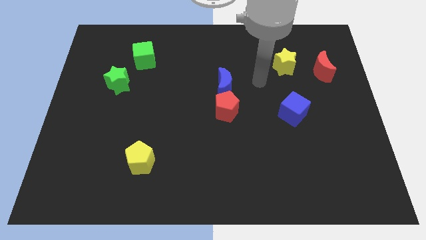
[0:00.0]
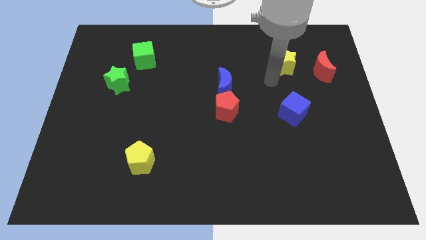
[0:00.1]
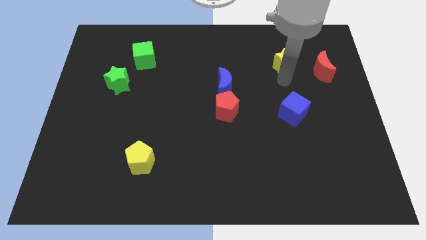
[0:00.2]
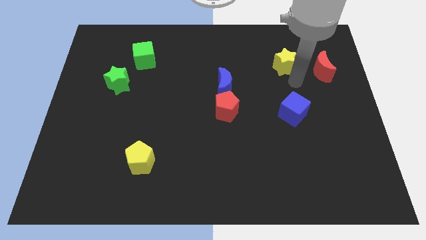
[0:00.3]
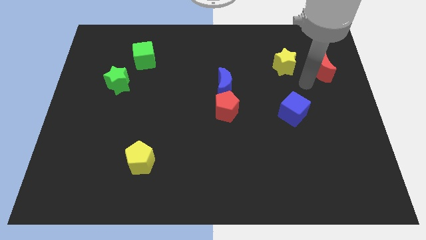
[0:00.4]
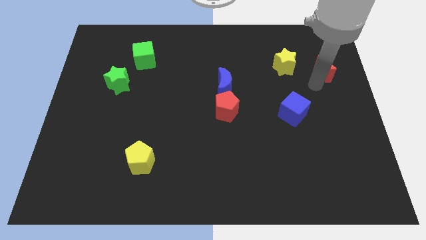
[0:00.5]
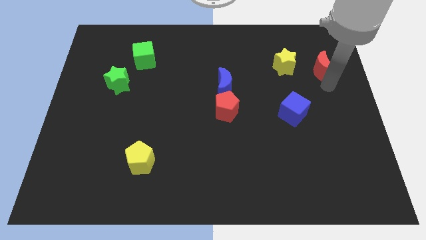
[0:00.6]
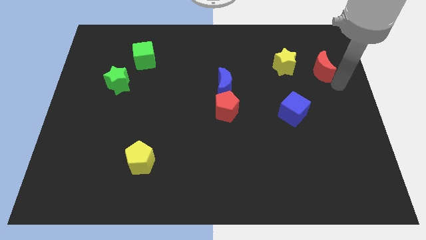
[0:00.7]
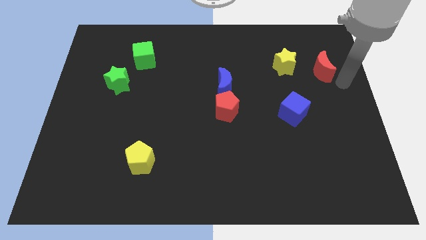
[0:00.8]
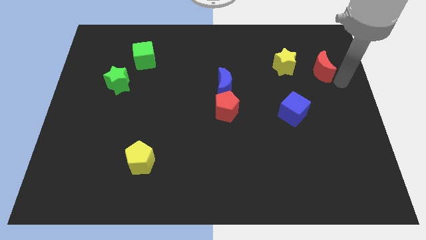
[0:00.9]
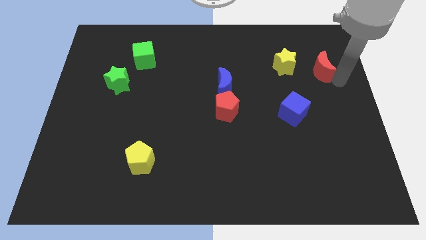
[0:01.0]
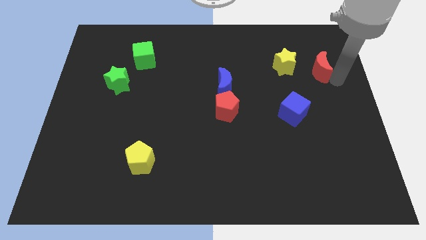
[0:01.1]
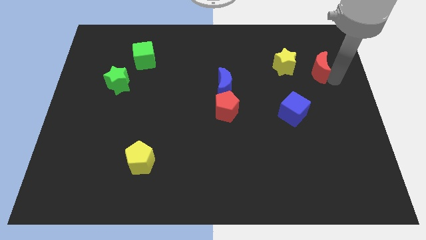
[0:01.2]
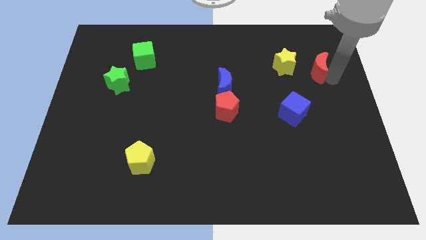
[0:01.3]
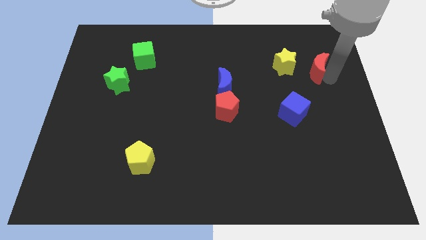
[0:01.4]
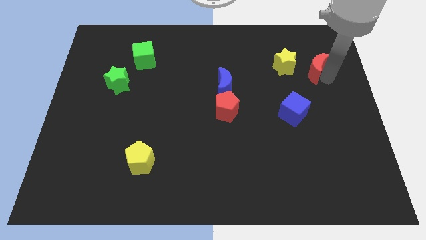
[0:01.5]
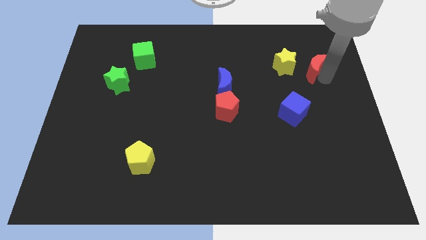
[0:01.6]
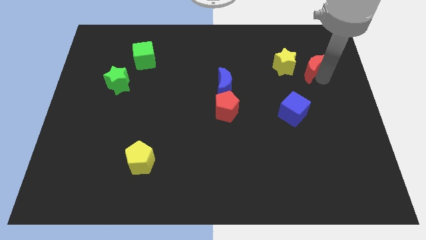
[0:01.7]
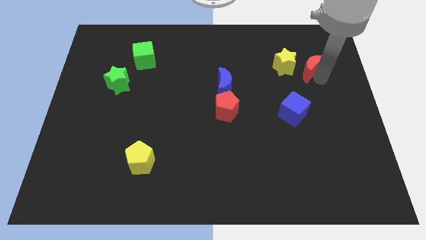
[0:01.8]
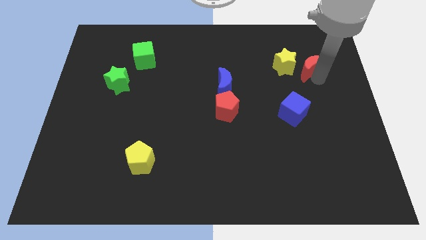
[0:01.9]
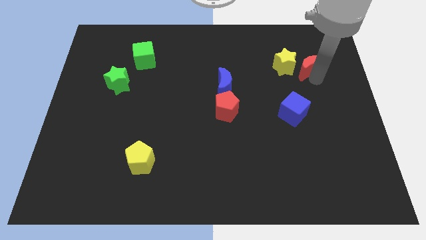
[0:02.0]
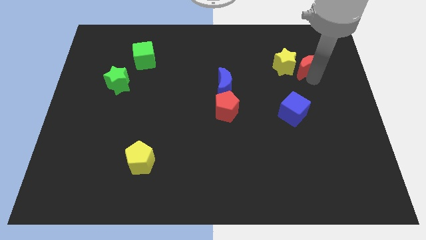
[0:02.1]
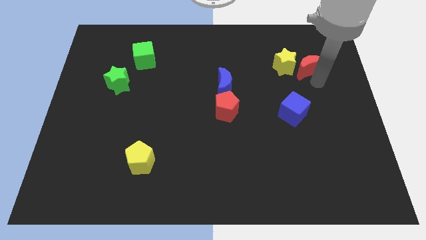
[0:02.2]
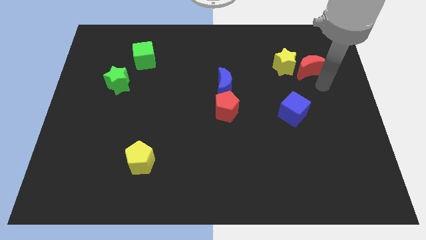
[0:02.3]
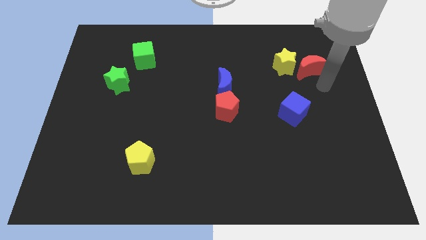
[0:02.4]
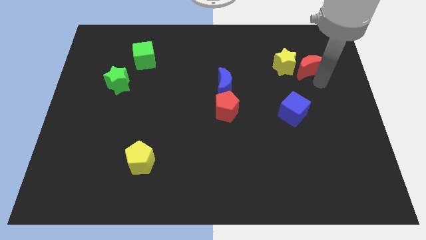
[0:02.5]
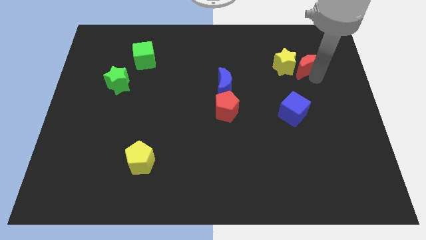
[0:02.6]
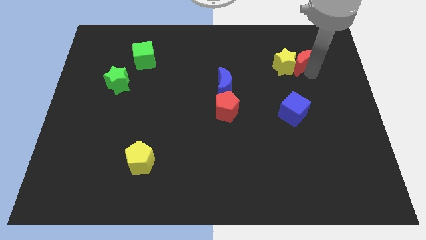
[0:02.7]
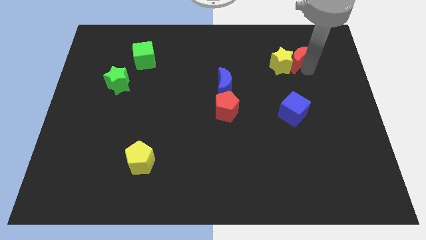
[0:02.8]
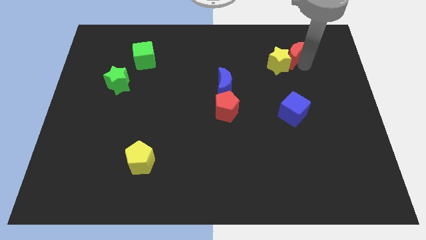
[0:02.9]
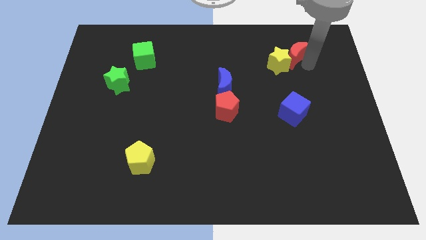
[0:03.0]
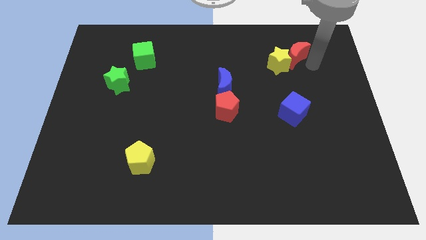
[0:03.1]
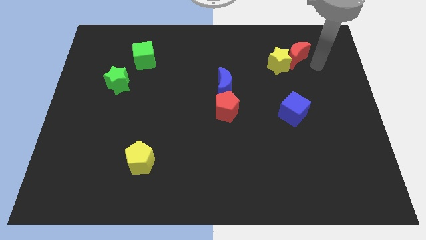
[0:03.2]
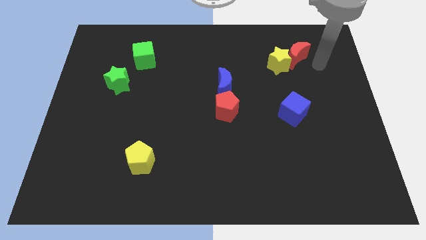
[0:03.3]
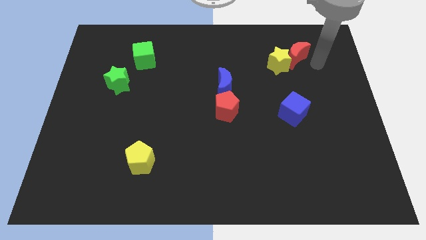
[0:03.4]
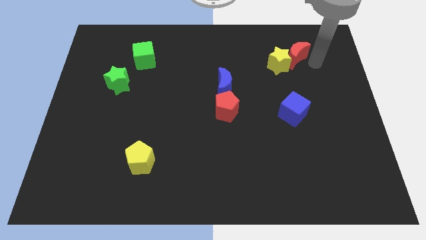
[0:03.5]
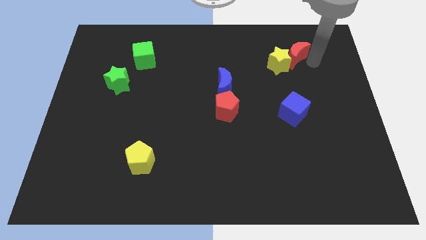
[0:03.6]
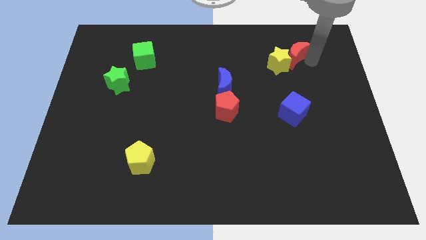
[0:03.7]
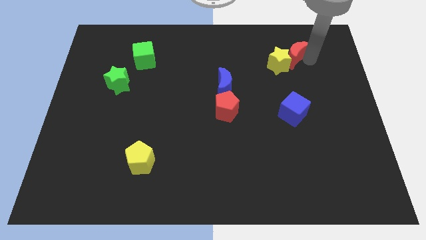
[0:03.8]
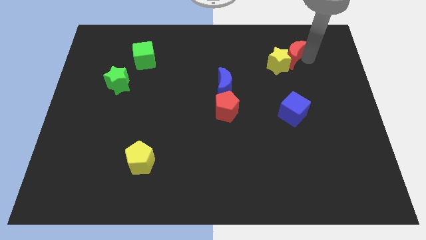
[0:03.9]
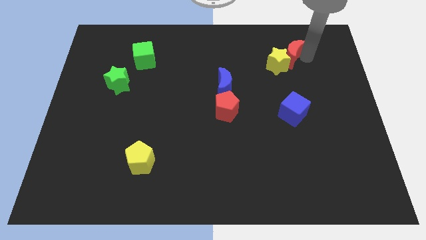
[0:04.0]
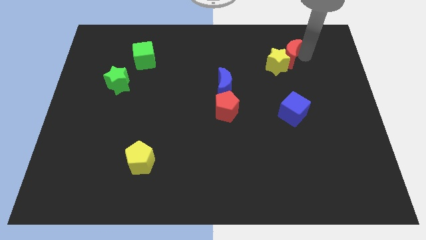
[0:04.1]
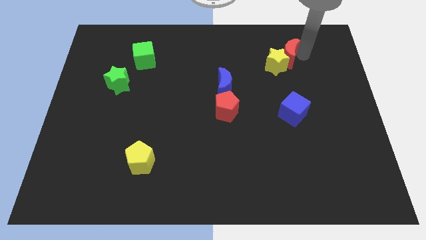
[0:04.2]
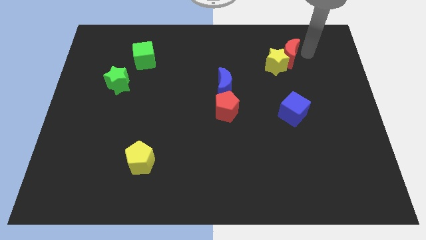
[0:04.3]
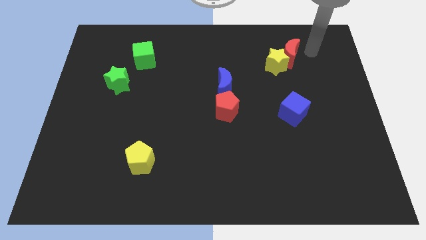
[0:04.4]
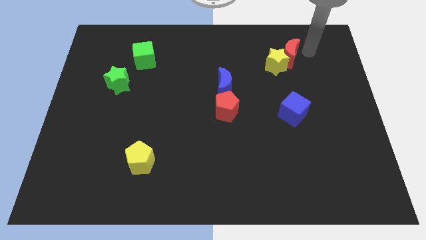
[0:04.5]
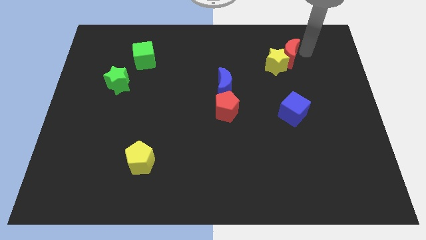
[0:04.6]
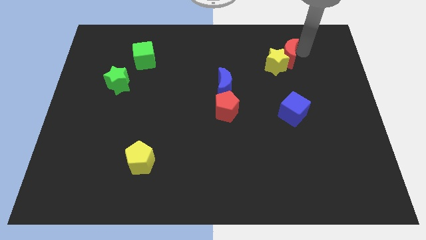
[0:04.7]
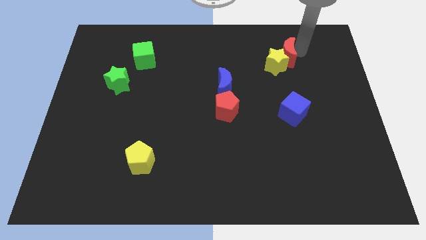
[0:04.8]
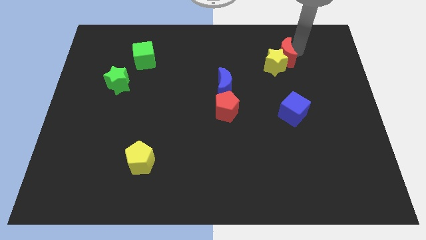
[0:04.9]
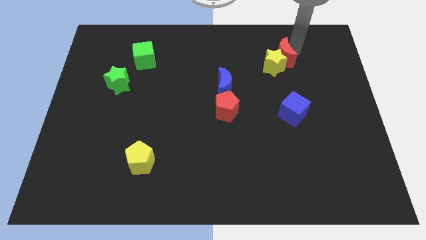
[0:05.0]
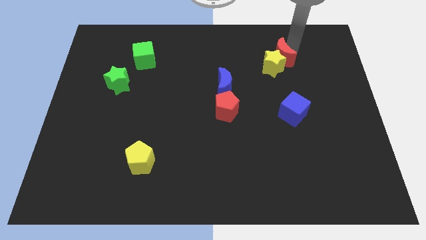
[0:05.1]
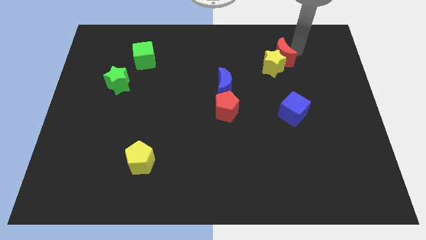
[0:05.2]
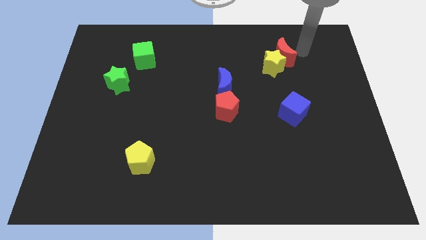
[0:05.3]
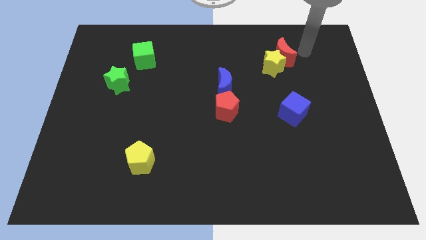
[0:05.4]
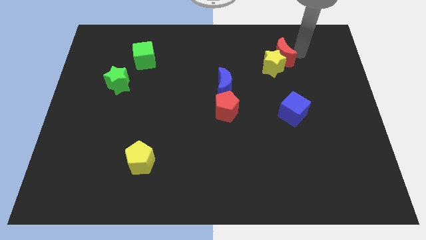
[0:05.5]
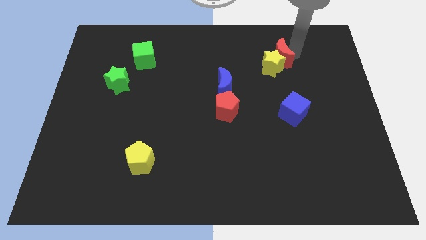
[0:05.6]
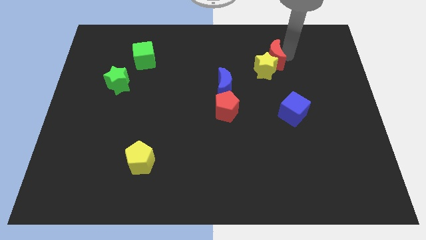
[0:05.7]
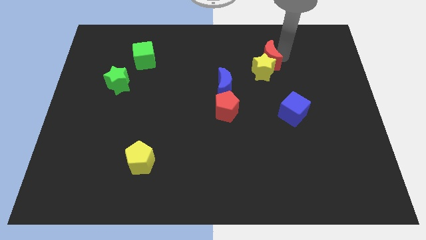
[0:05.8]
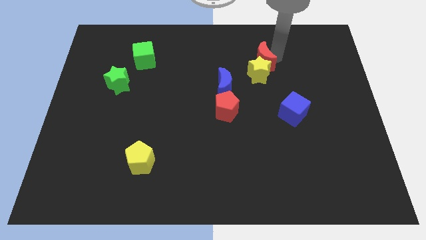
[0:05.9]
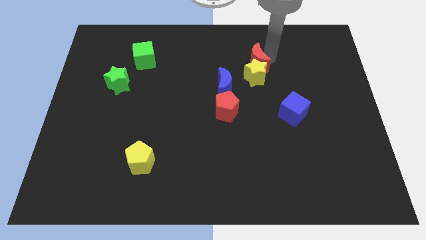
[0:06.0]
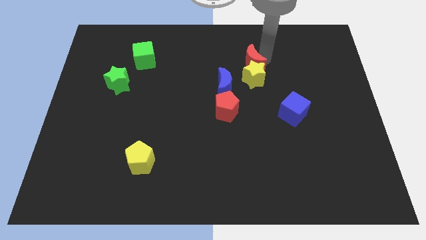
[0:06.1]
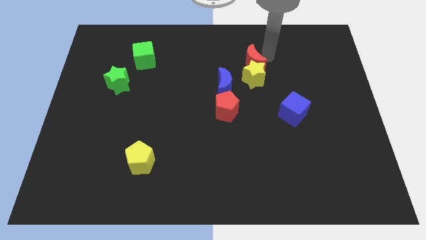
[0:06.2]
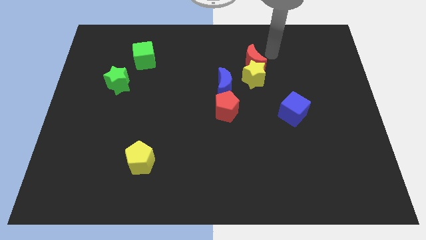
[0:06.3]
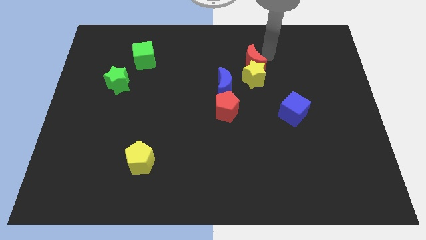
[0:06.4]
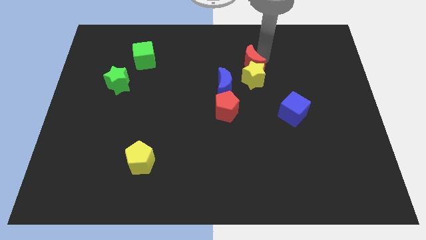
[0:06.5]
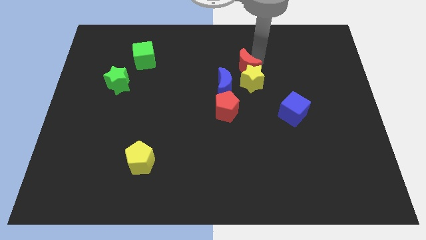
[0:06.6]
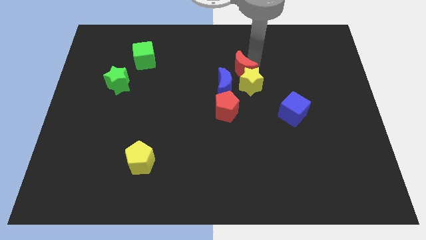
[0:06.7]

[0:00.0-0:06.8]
slide the red moon to the center
